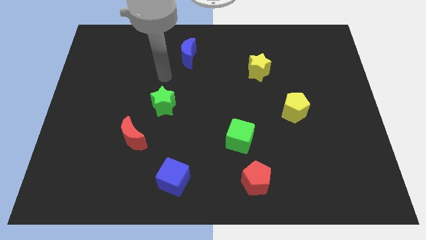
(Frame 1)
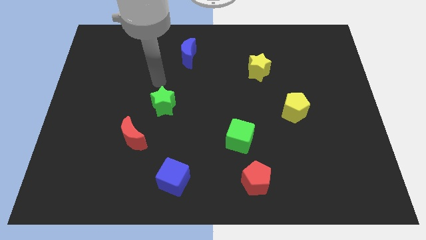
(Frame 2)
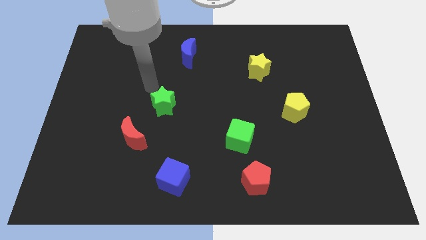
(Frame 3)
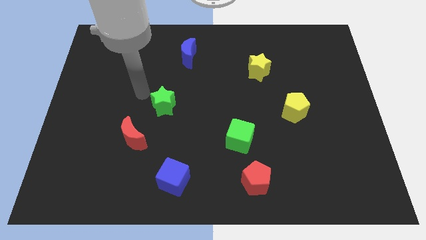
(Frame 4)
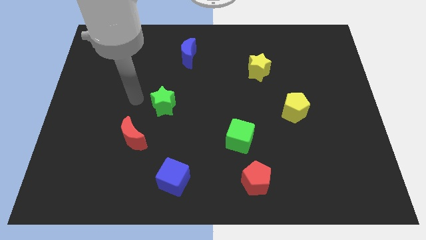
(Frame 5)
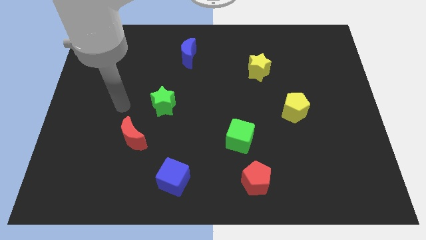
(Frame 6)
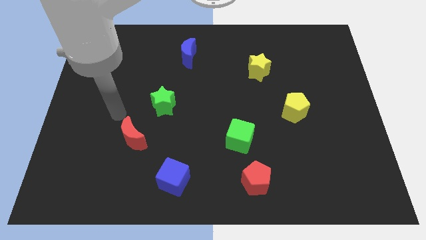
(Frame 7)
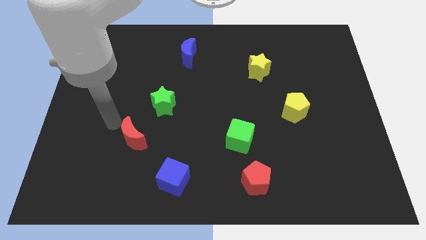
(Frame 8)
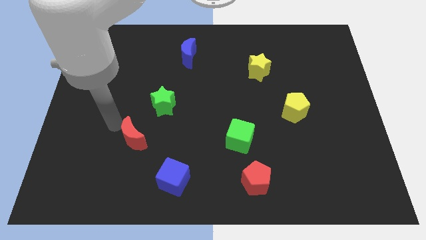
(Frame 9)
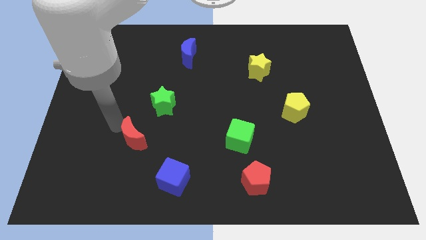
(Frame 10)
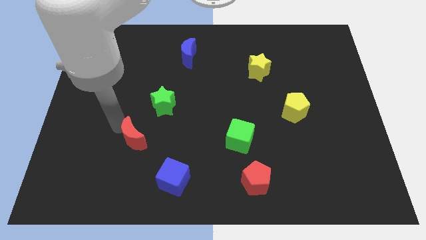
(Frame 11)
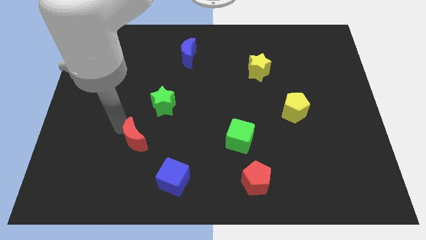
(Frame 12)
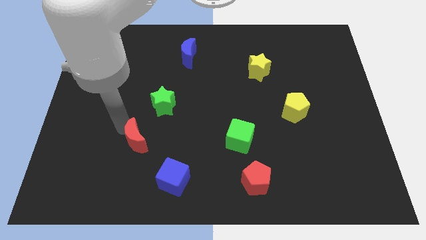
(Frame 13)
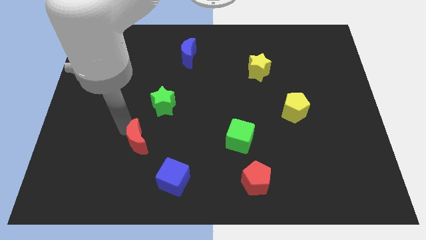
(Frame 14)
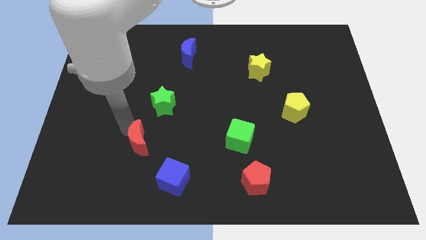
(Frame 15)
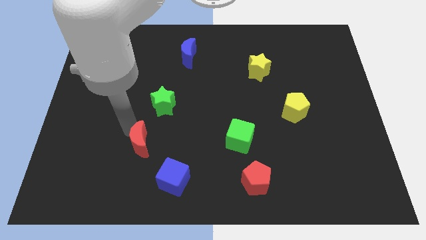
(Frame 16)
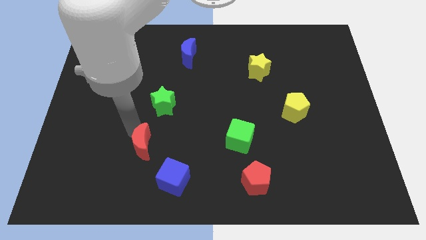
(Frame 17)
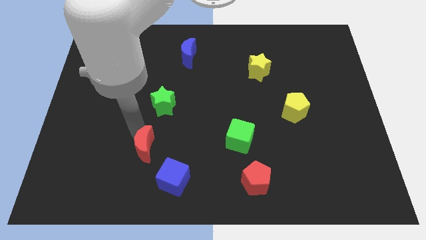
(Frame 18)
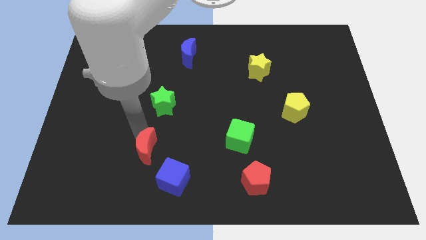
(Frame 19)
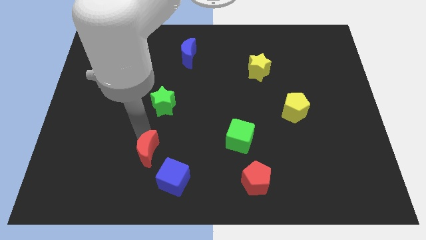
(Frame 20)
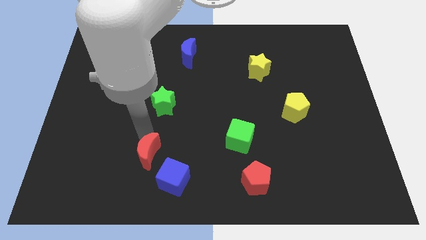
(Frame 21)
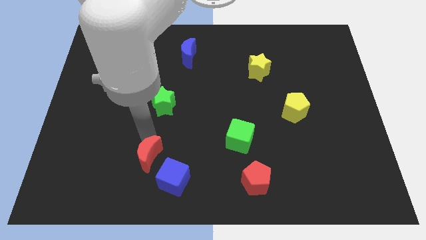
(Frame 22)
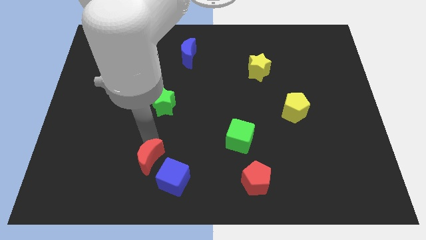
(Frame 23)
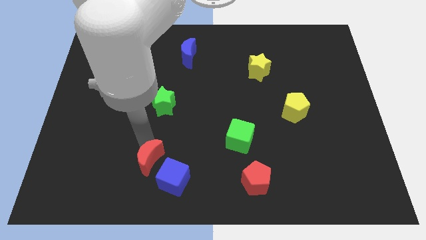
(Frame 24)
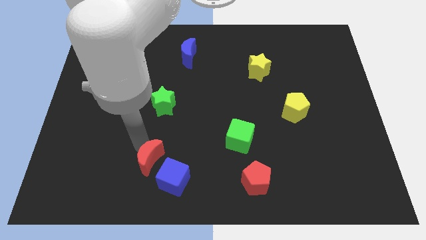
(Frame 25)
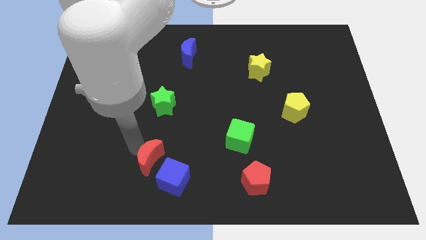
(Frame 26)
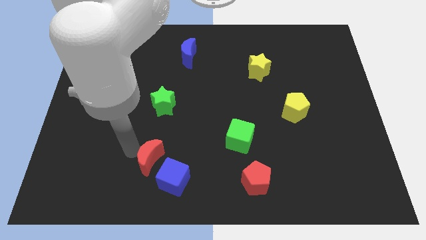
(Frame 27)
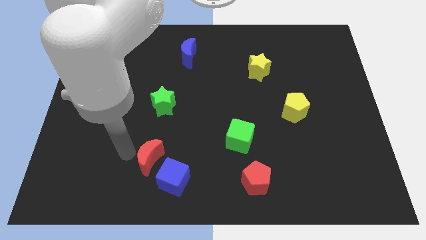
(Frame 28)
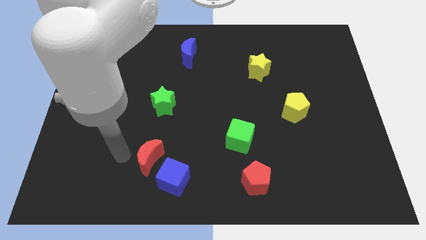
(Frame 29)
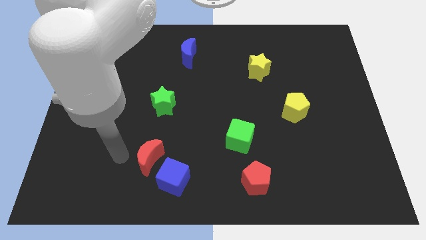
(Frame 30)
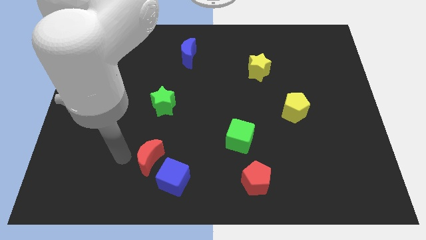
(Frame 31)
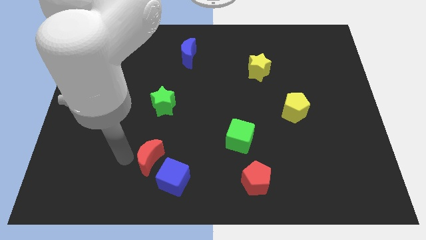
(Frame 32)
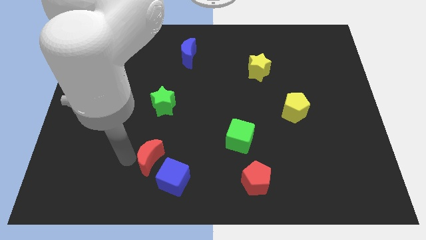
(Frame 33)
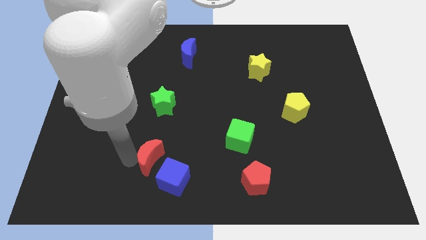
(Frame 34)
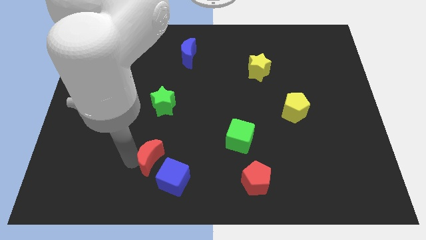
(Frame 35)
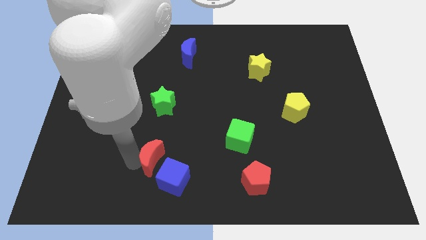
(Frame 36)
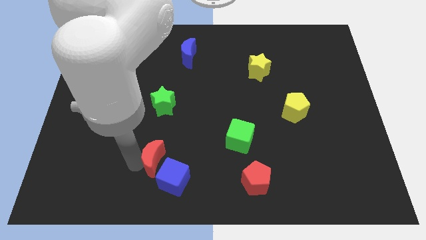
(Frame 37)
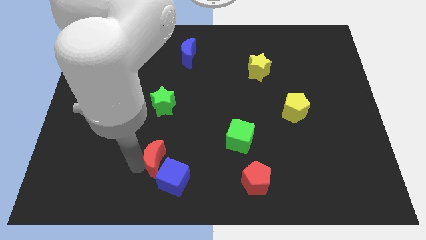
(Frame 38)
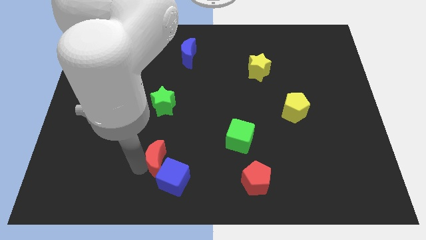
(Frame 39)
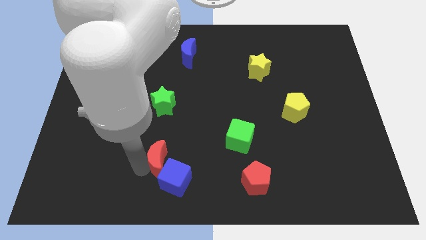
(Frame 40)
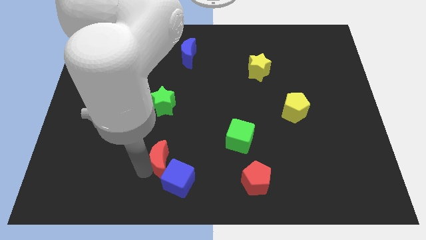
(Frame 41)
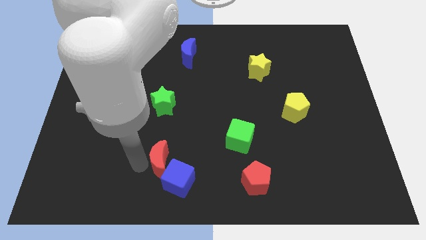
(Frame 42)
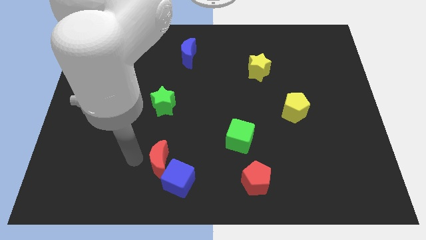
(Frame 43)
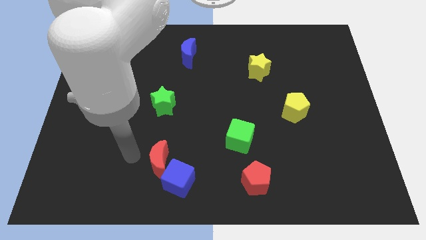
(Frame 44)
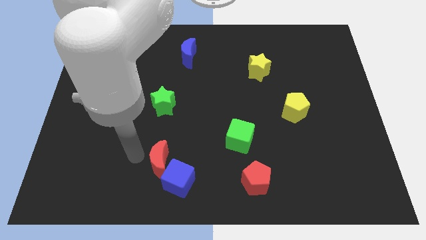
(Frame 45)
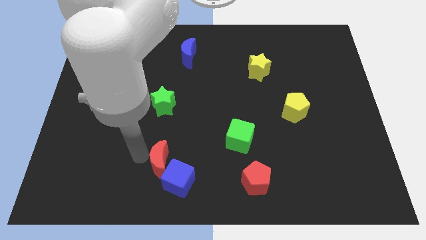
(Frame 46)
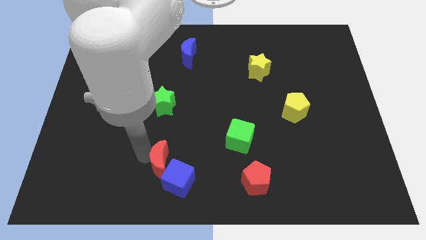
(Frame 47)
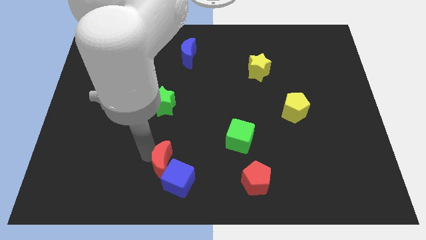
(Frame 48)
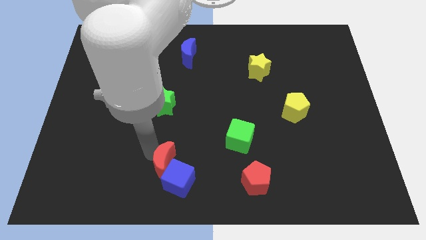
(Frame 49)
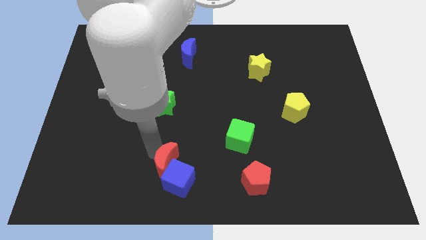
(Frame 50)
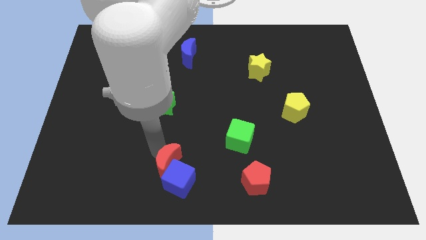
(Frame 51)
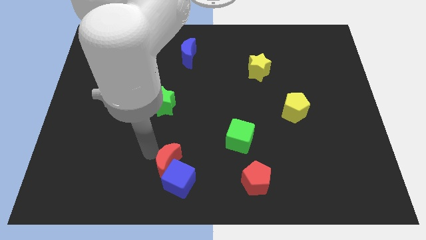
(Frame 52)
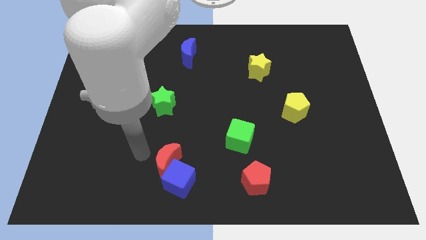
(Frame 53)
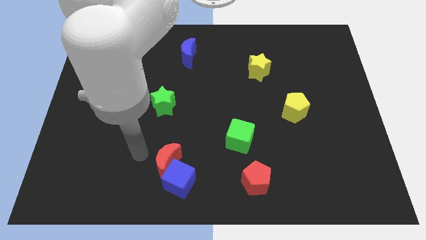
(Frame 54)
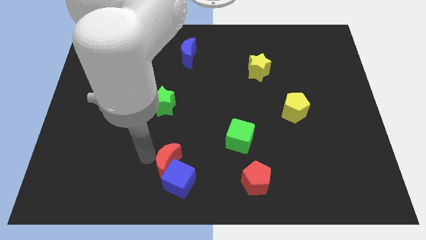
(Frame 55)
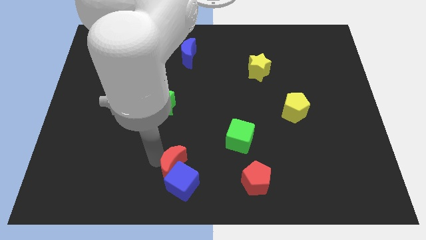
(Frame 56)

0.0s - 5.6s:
slide the red moon to the bottom
